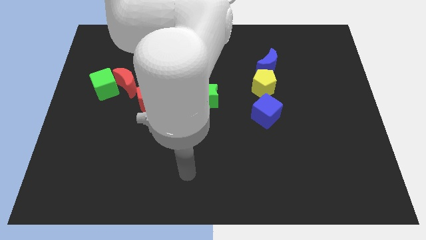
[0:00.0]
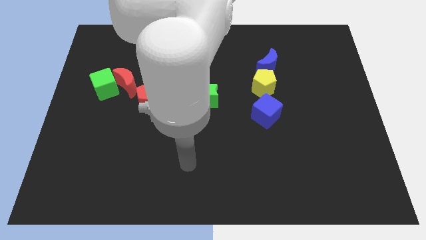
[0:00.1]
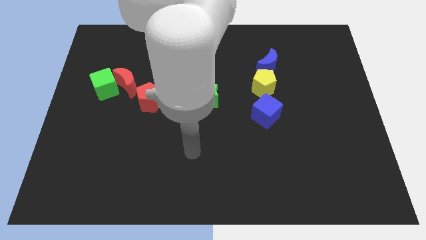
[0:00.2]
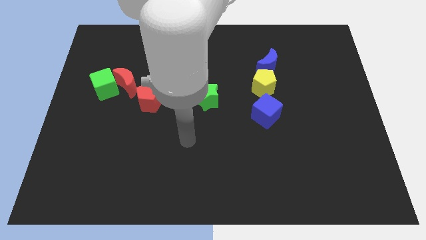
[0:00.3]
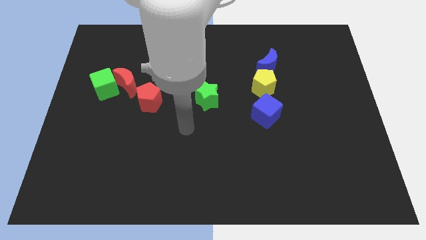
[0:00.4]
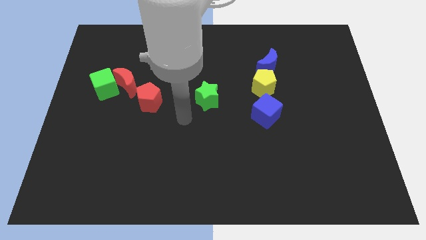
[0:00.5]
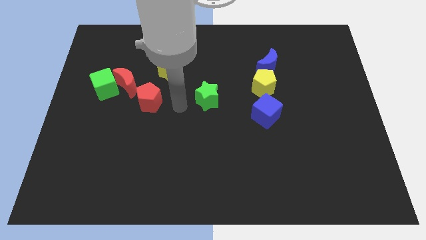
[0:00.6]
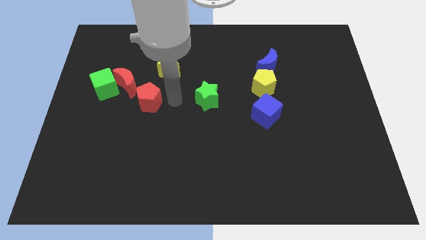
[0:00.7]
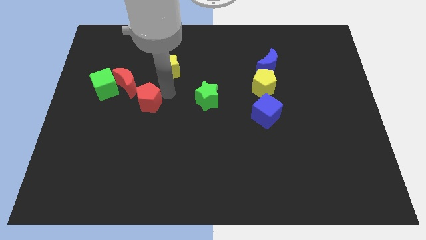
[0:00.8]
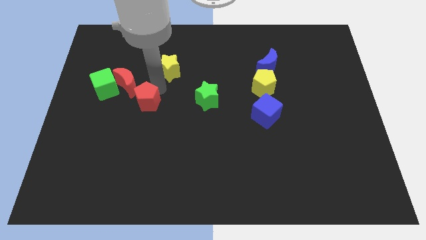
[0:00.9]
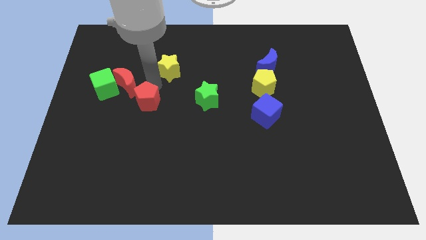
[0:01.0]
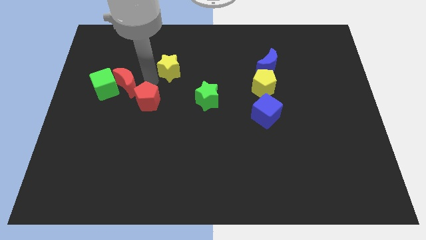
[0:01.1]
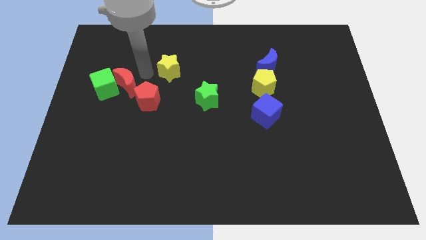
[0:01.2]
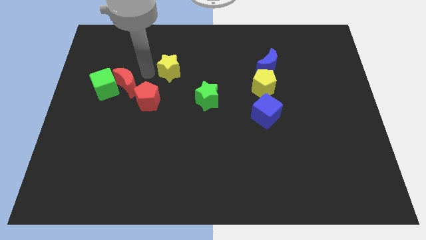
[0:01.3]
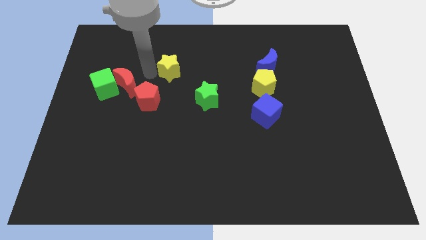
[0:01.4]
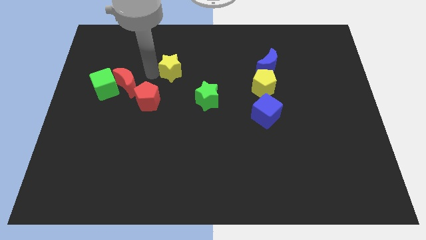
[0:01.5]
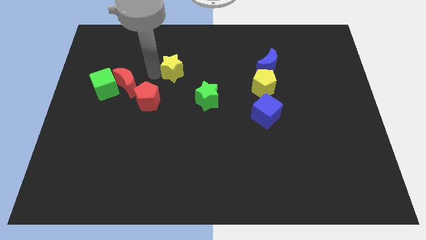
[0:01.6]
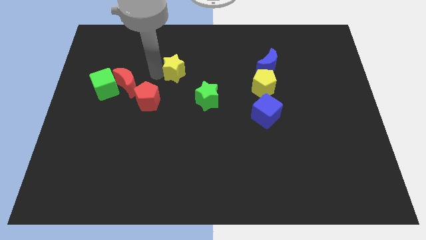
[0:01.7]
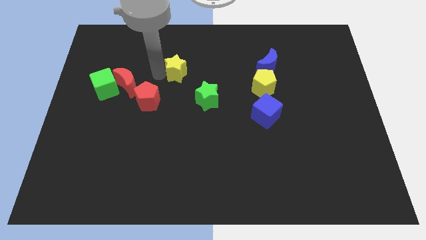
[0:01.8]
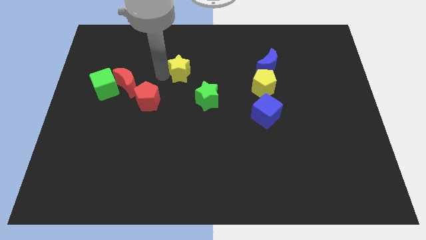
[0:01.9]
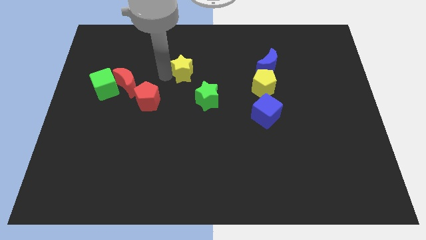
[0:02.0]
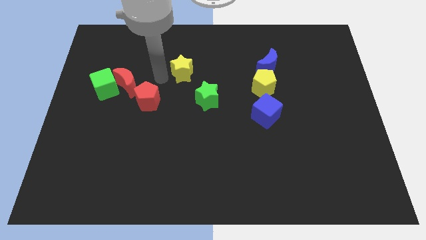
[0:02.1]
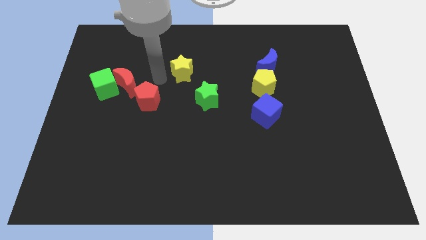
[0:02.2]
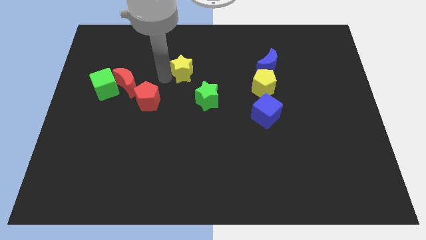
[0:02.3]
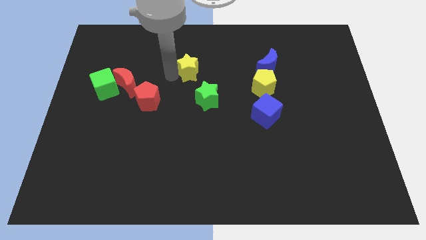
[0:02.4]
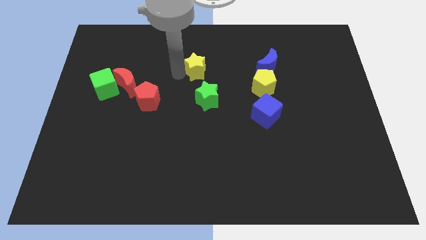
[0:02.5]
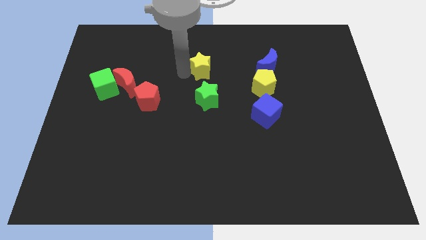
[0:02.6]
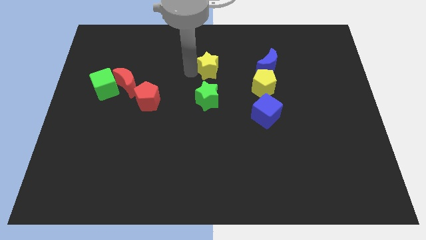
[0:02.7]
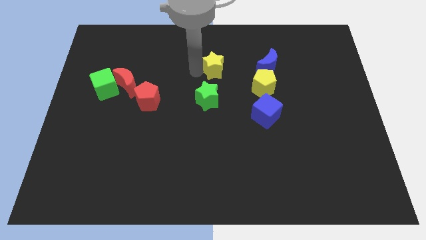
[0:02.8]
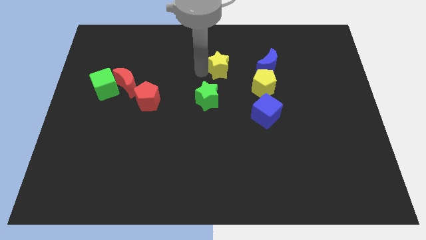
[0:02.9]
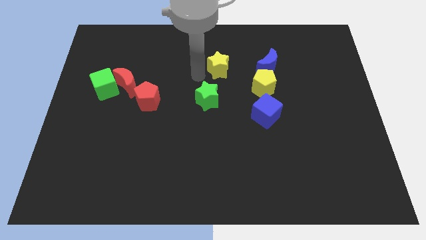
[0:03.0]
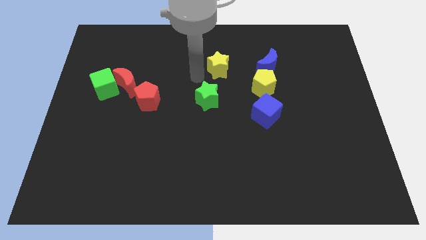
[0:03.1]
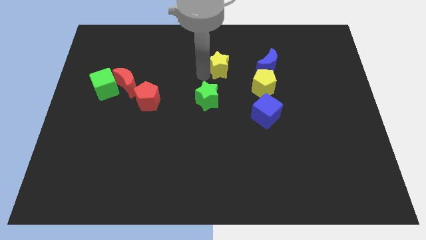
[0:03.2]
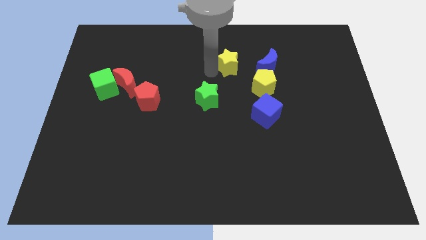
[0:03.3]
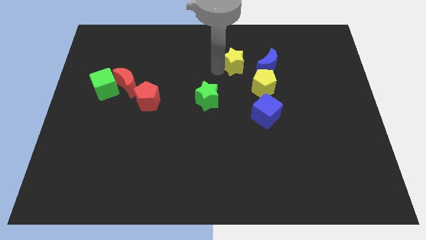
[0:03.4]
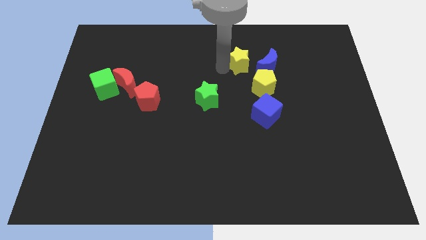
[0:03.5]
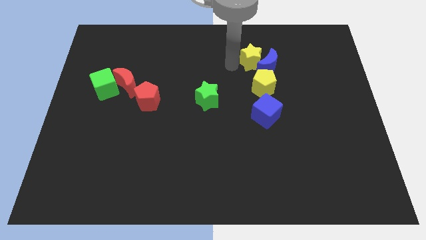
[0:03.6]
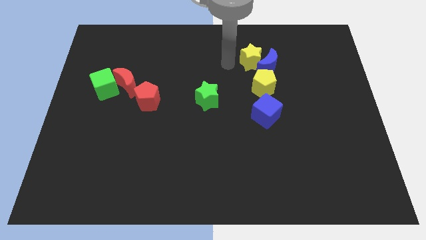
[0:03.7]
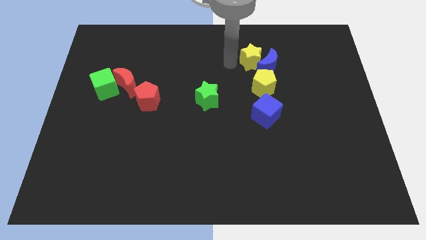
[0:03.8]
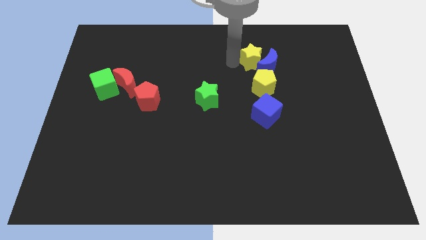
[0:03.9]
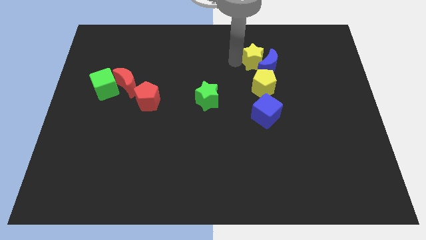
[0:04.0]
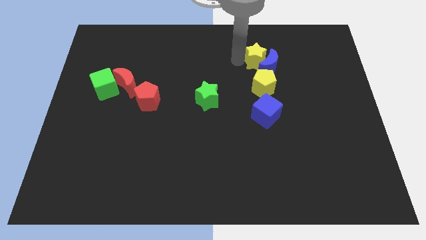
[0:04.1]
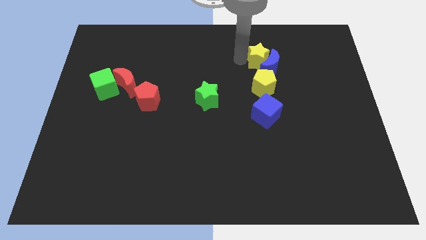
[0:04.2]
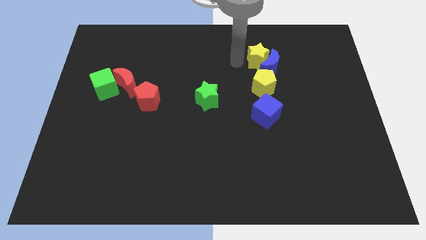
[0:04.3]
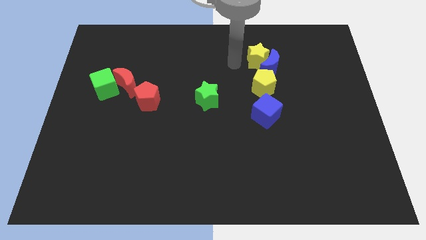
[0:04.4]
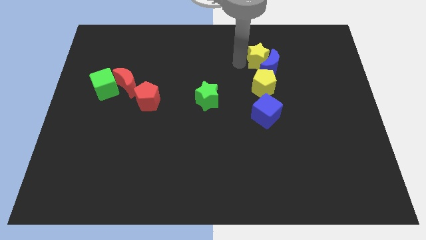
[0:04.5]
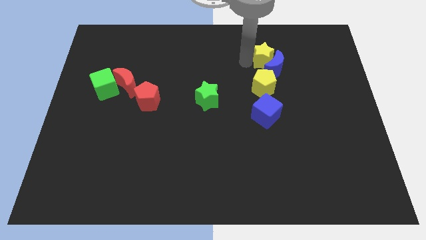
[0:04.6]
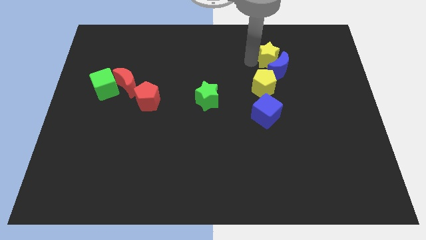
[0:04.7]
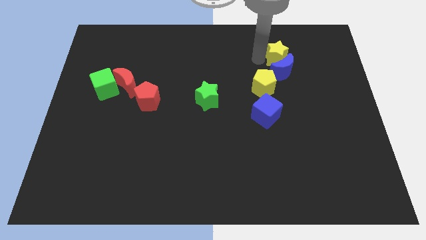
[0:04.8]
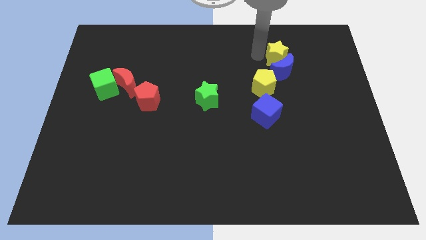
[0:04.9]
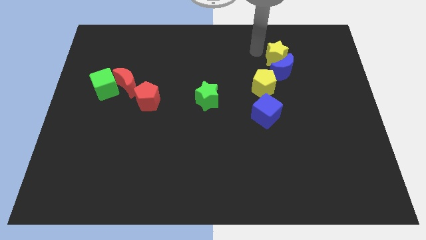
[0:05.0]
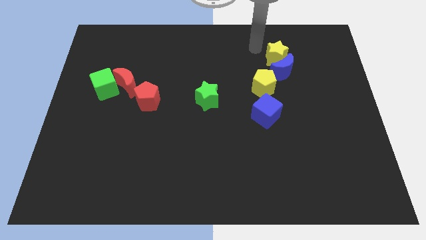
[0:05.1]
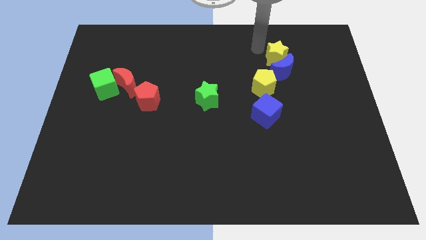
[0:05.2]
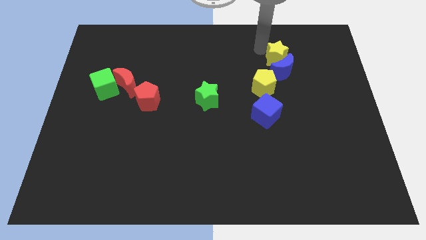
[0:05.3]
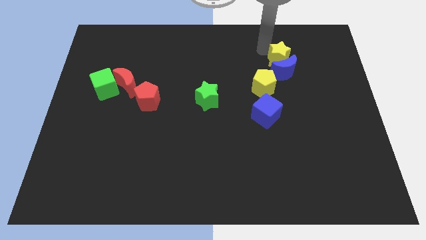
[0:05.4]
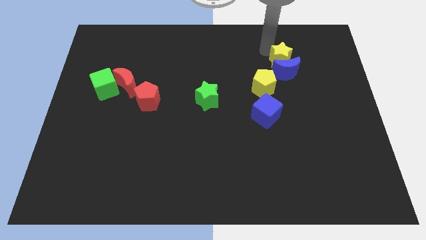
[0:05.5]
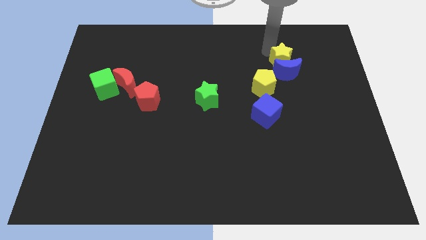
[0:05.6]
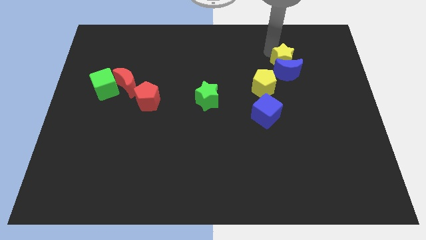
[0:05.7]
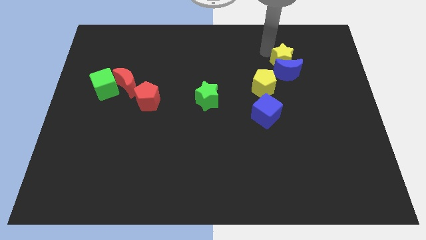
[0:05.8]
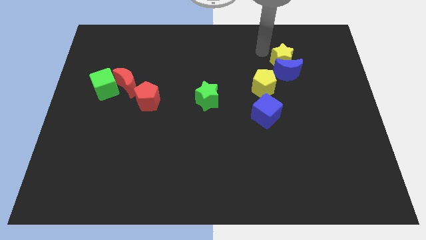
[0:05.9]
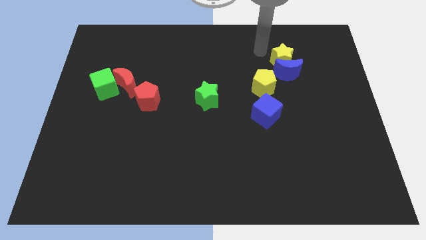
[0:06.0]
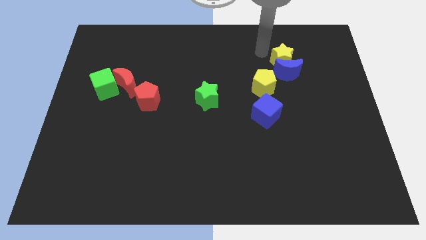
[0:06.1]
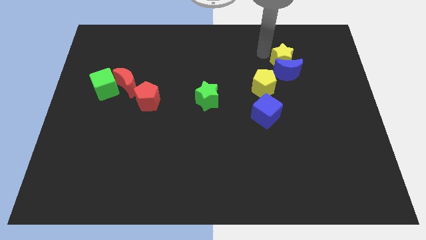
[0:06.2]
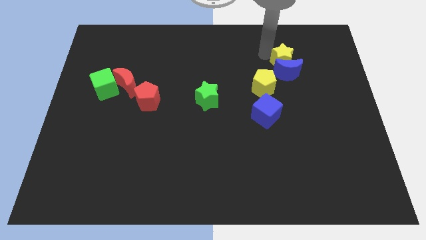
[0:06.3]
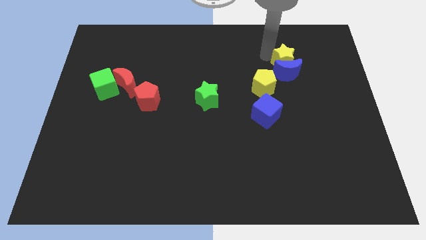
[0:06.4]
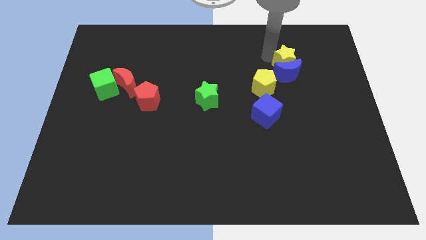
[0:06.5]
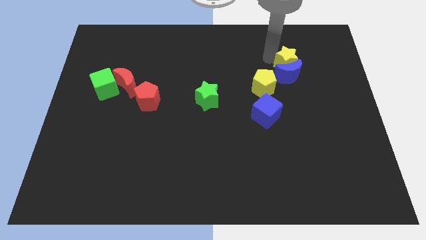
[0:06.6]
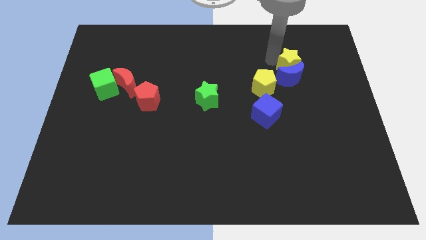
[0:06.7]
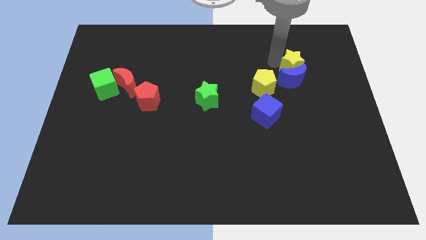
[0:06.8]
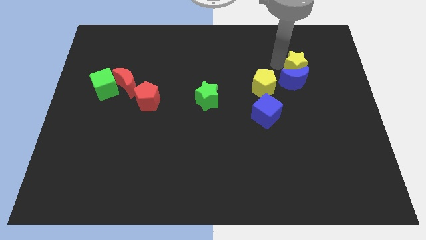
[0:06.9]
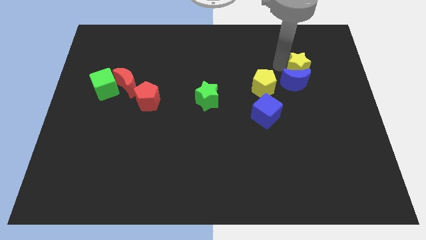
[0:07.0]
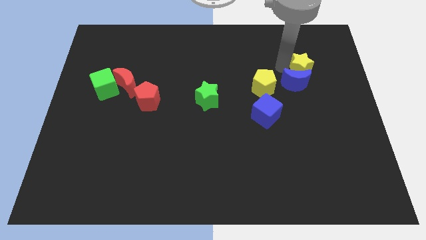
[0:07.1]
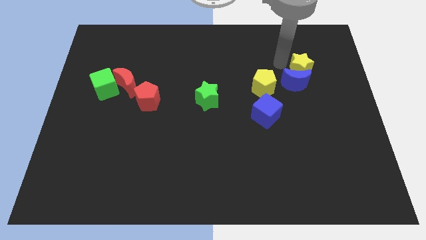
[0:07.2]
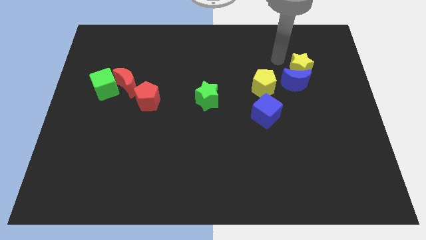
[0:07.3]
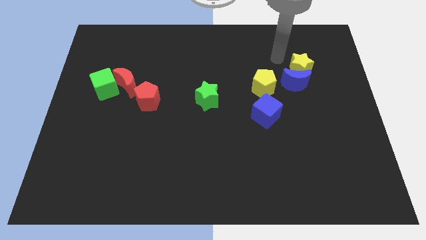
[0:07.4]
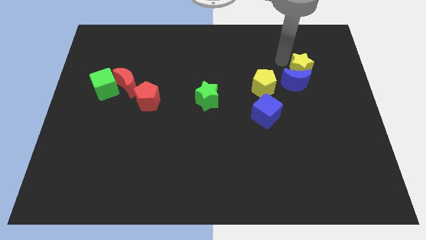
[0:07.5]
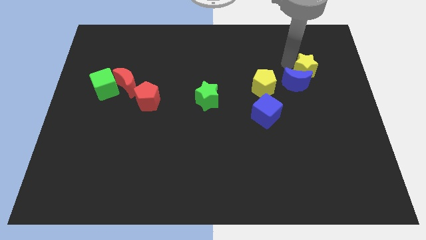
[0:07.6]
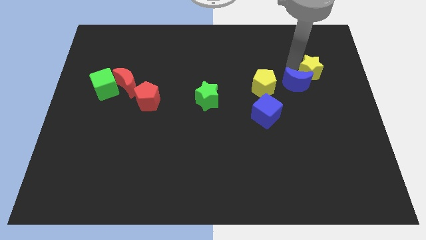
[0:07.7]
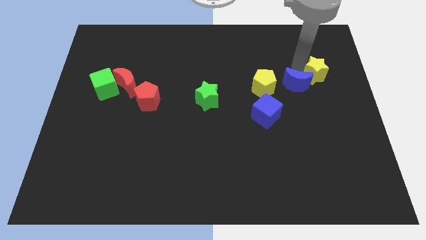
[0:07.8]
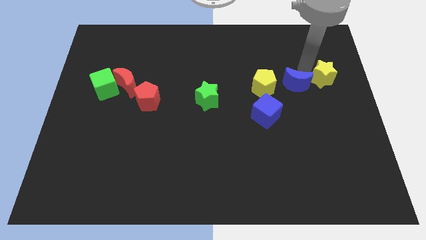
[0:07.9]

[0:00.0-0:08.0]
slide the yellow star to the center right
